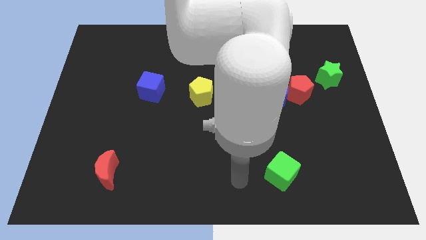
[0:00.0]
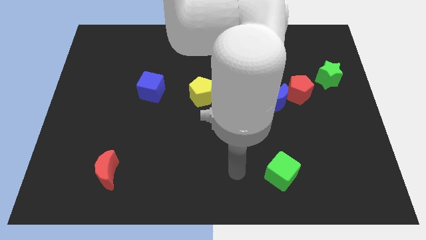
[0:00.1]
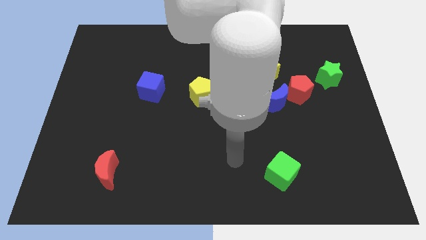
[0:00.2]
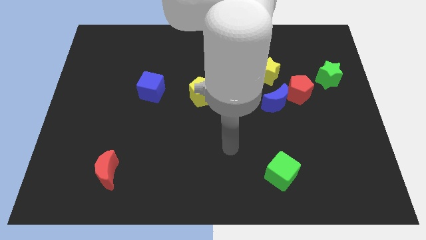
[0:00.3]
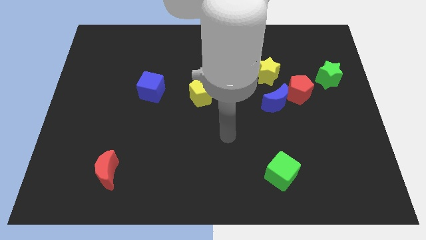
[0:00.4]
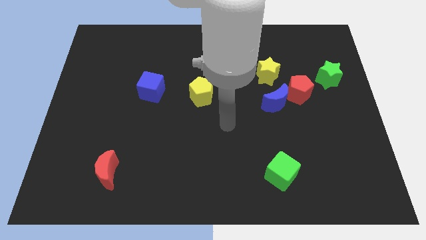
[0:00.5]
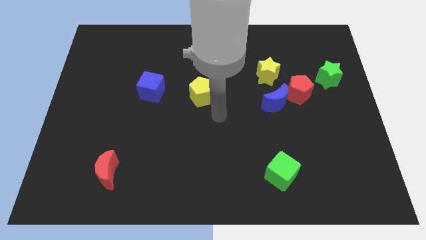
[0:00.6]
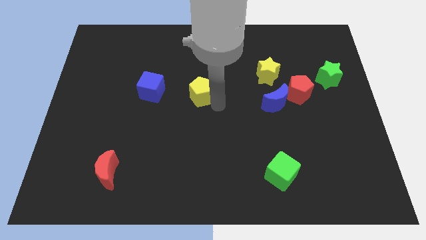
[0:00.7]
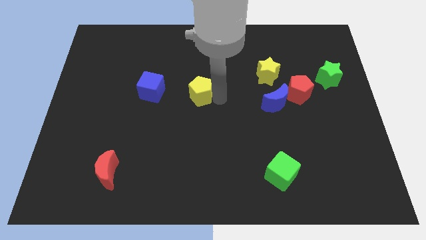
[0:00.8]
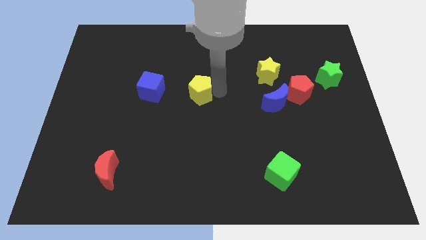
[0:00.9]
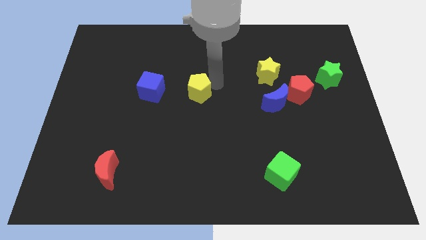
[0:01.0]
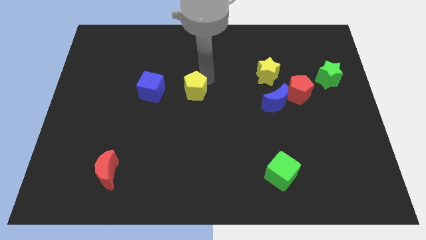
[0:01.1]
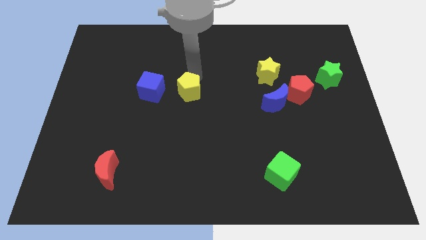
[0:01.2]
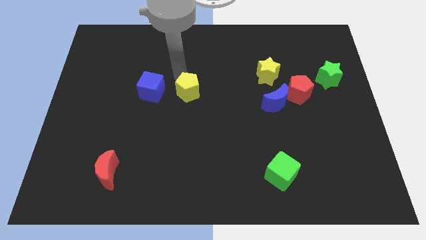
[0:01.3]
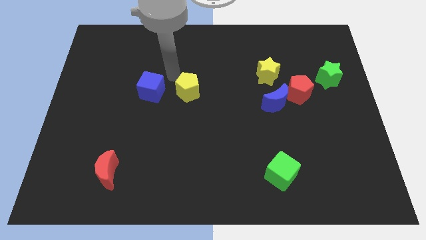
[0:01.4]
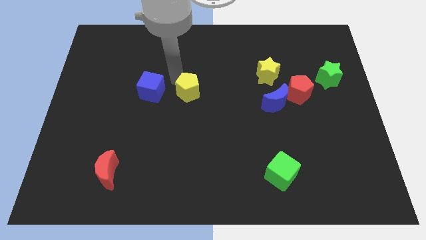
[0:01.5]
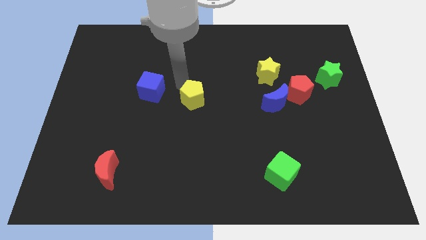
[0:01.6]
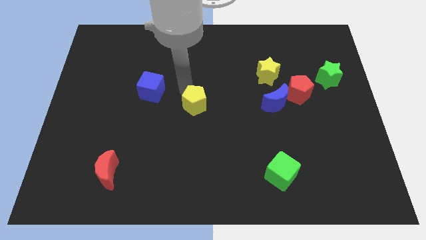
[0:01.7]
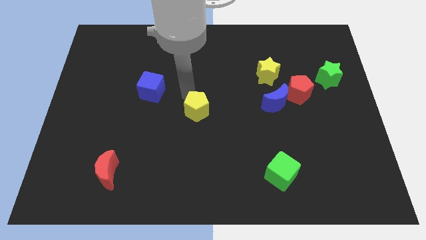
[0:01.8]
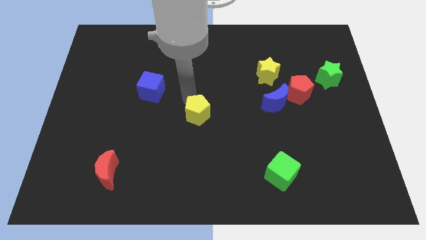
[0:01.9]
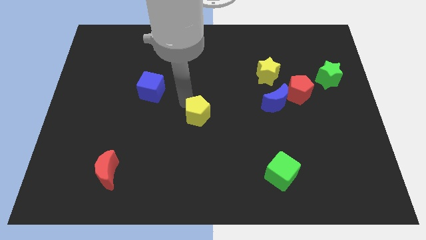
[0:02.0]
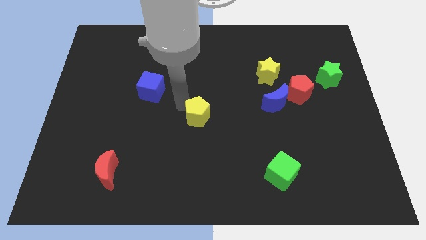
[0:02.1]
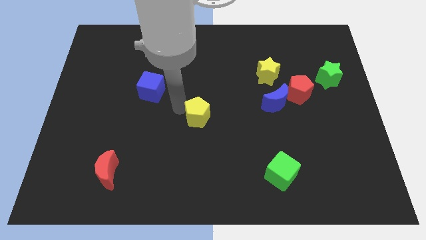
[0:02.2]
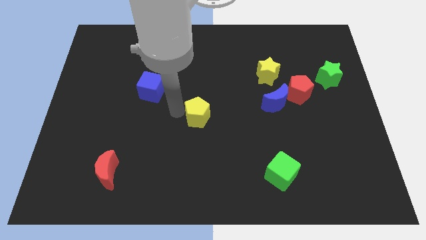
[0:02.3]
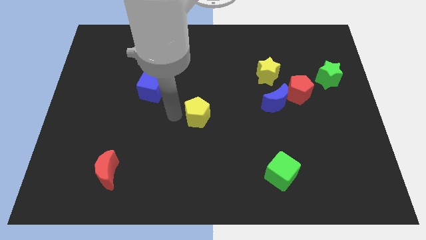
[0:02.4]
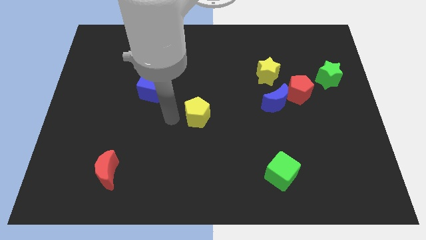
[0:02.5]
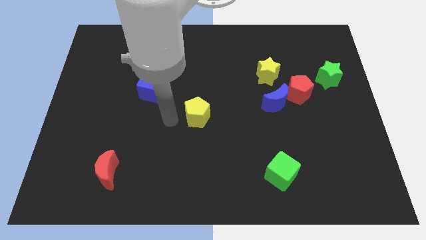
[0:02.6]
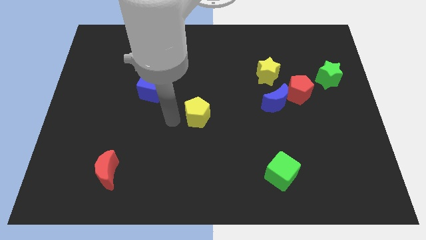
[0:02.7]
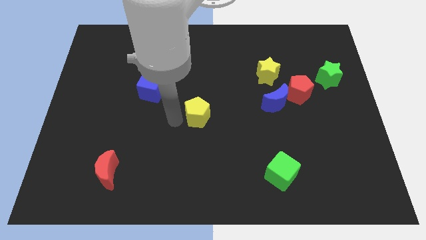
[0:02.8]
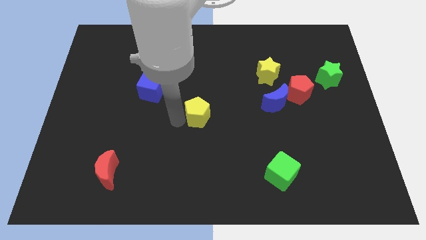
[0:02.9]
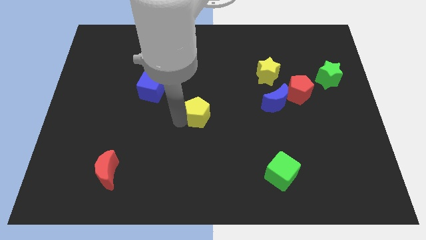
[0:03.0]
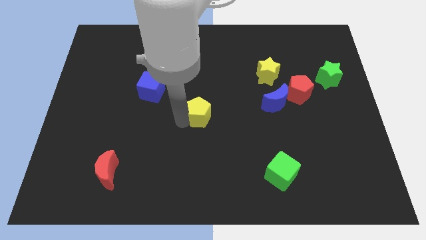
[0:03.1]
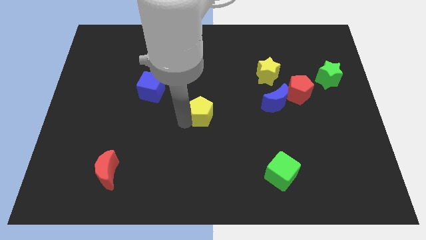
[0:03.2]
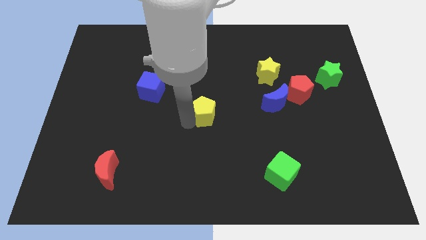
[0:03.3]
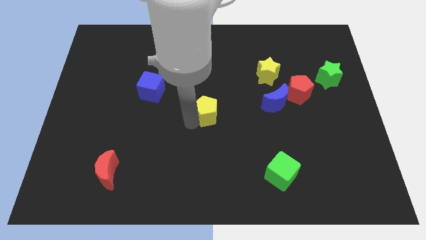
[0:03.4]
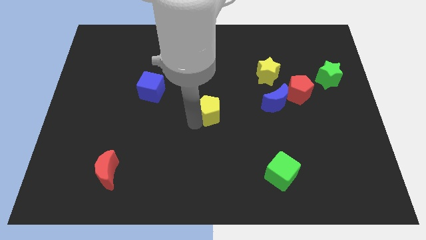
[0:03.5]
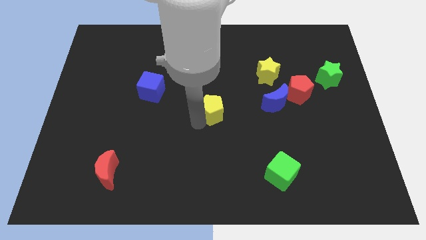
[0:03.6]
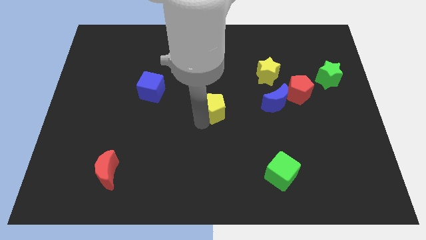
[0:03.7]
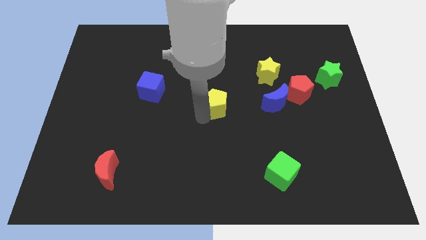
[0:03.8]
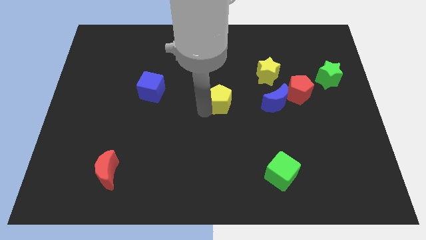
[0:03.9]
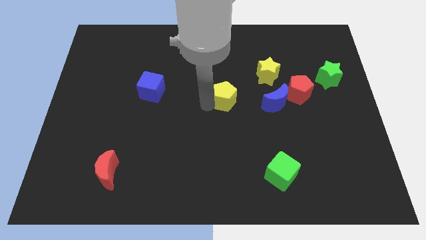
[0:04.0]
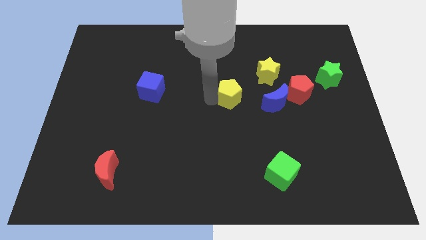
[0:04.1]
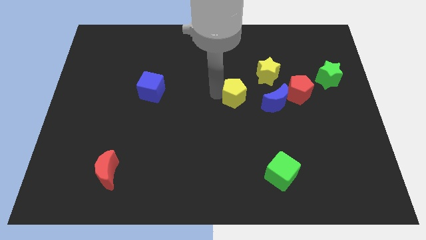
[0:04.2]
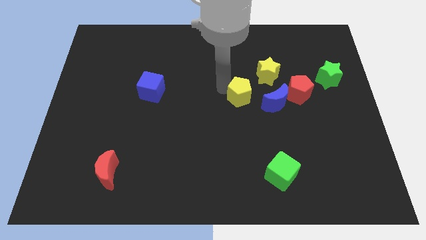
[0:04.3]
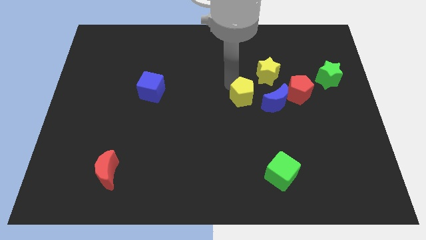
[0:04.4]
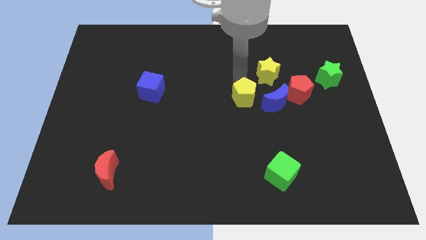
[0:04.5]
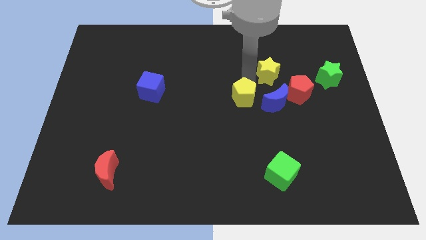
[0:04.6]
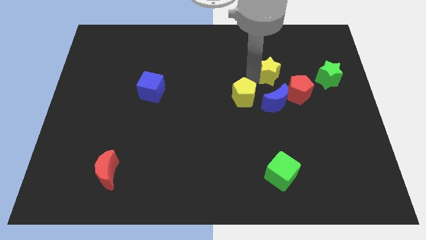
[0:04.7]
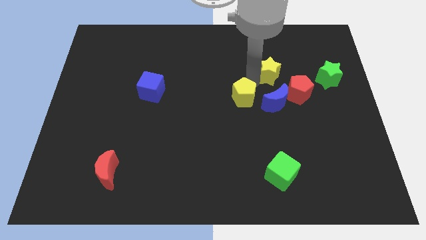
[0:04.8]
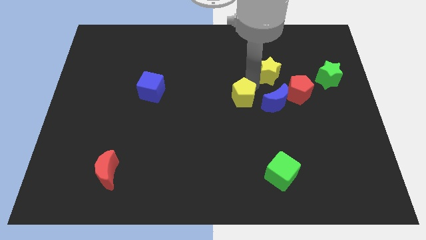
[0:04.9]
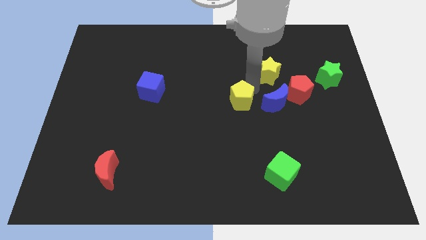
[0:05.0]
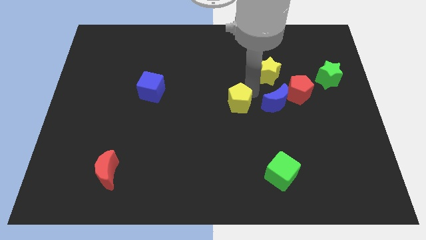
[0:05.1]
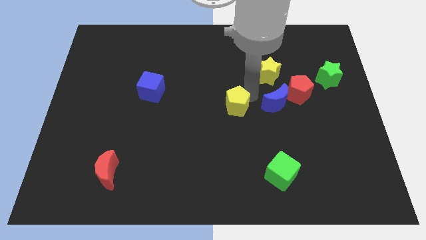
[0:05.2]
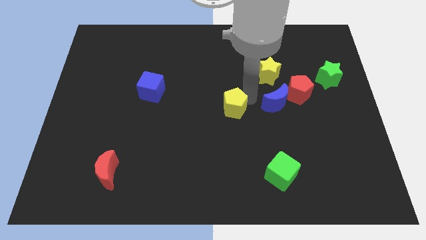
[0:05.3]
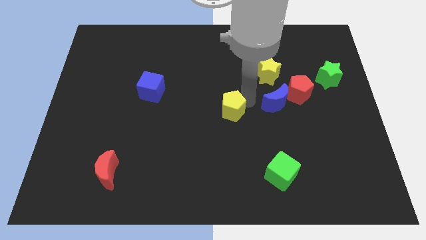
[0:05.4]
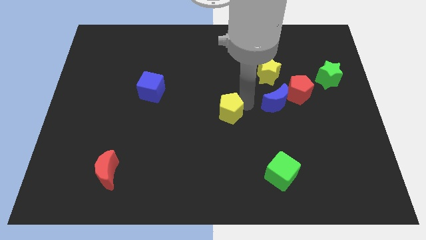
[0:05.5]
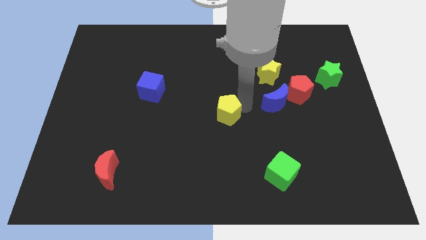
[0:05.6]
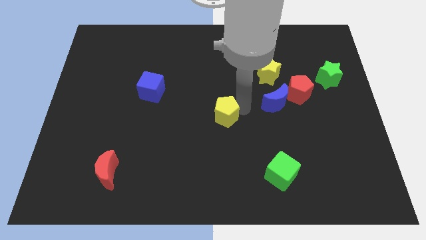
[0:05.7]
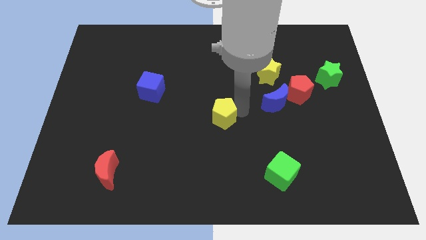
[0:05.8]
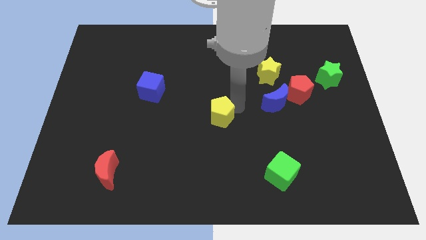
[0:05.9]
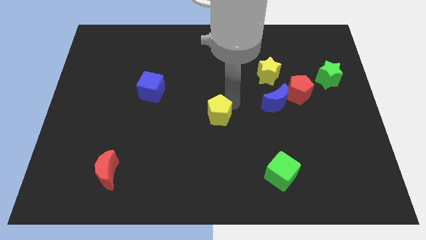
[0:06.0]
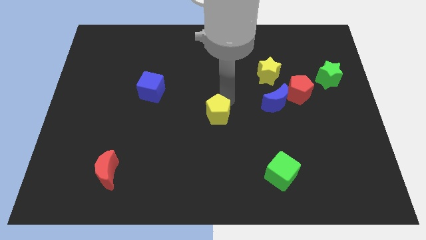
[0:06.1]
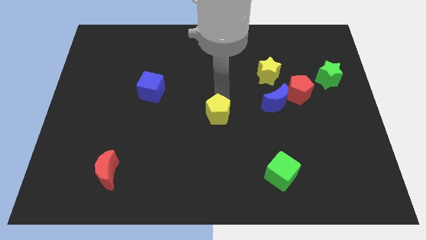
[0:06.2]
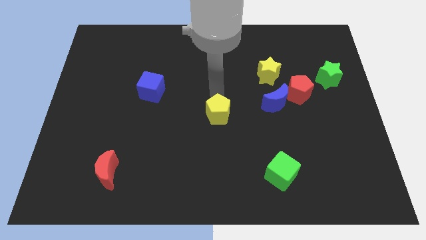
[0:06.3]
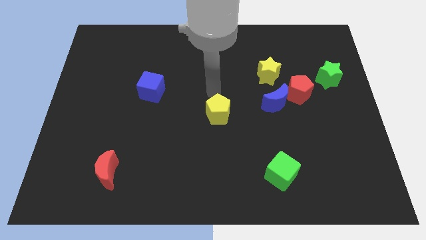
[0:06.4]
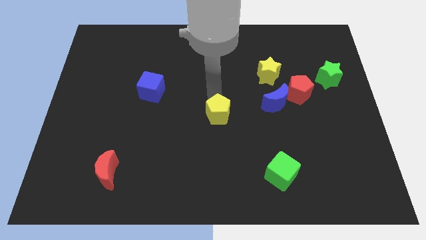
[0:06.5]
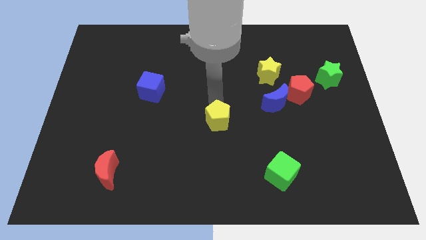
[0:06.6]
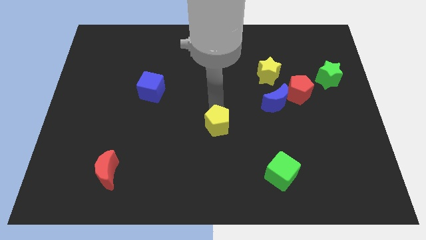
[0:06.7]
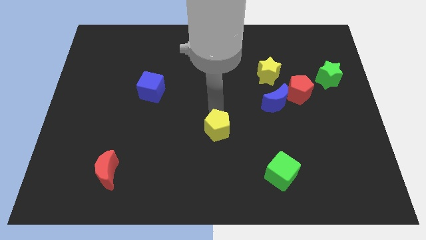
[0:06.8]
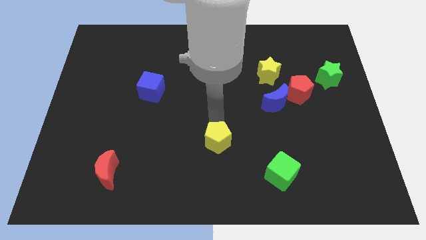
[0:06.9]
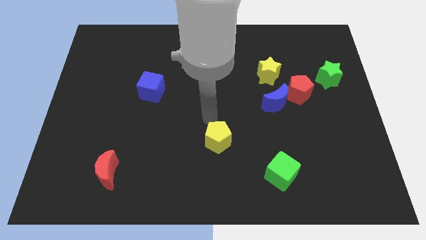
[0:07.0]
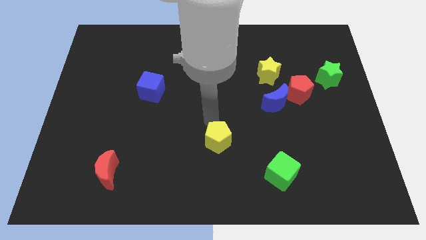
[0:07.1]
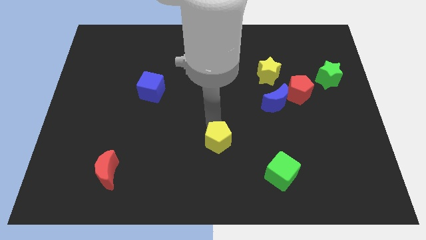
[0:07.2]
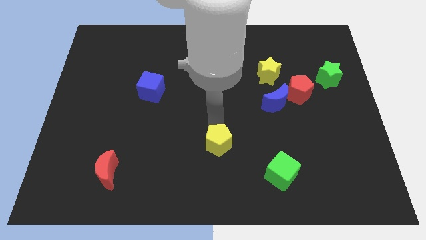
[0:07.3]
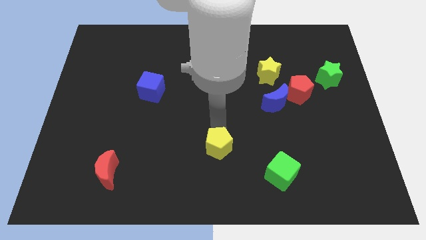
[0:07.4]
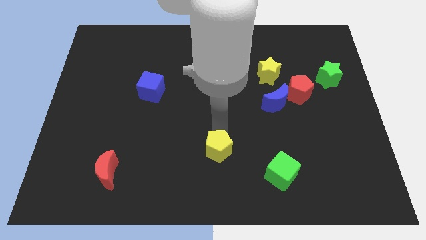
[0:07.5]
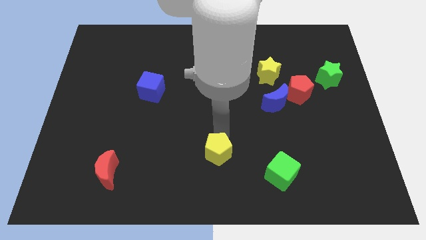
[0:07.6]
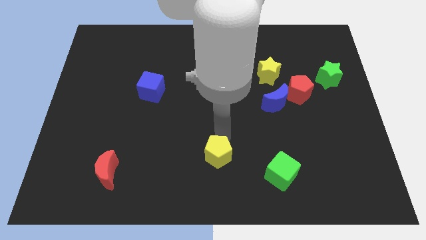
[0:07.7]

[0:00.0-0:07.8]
put the yellow pentagon to the left of the green cube
